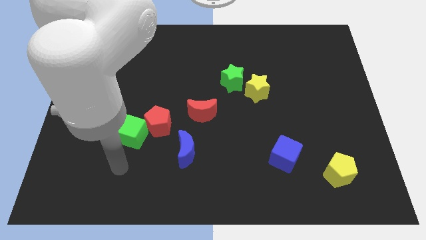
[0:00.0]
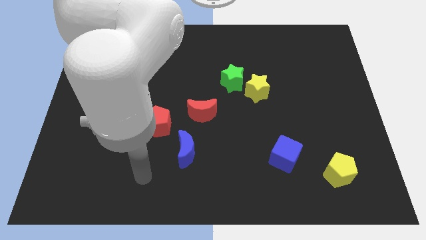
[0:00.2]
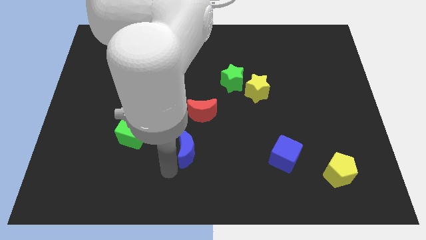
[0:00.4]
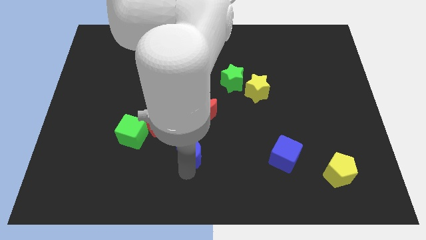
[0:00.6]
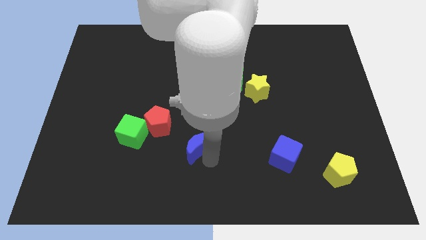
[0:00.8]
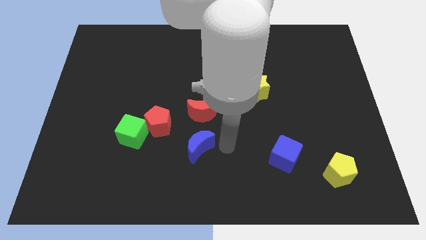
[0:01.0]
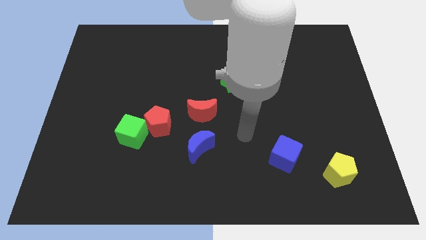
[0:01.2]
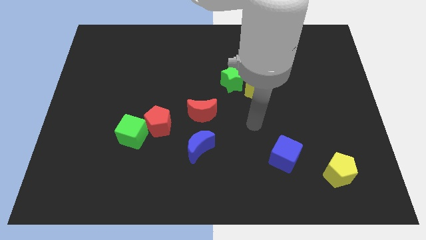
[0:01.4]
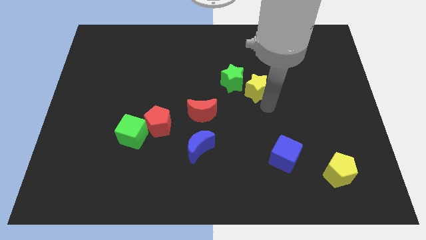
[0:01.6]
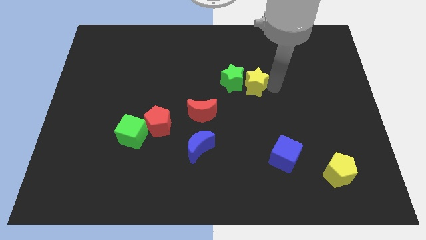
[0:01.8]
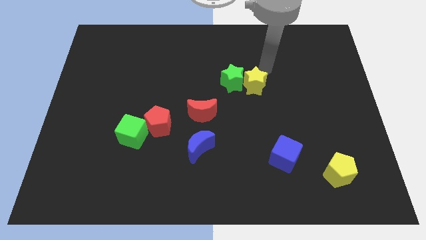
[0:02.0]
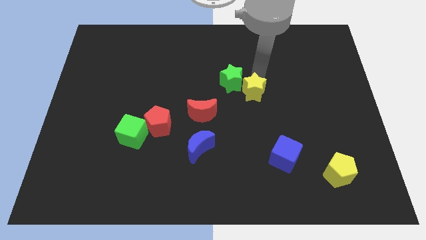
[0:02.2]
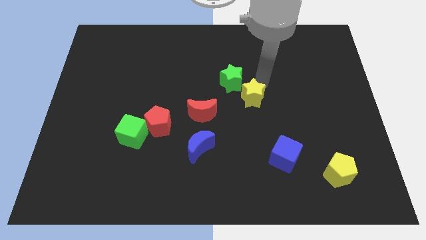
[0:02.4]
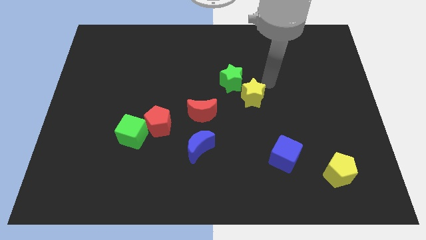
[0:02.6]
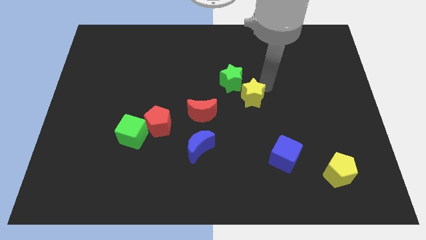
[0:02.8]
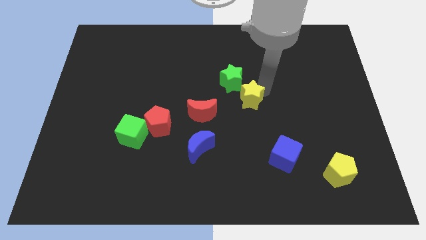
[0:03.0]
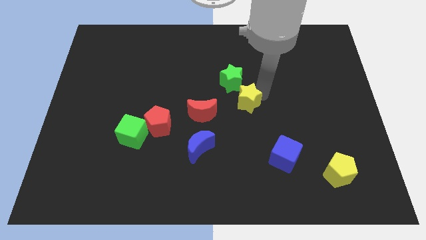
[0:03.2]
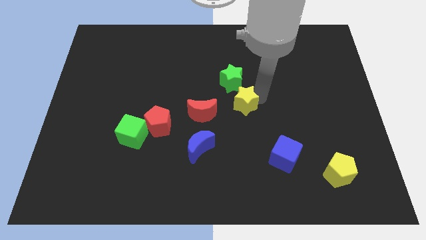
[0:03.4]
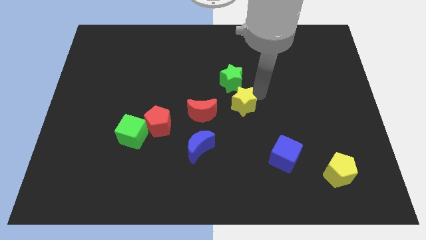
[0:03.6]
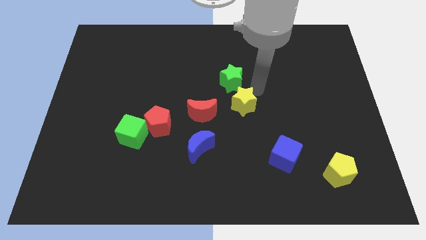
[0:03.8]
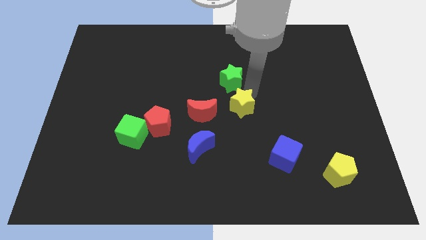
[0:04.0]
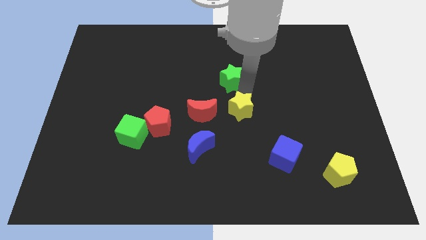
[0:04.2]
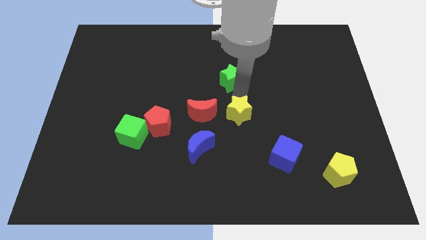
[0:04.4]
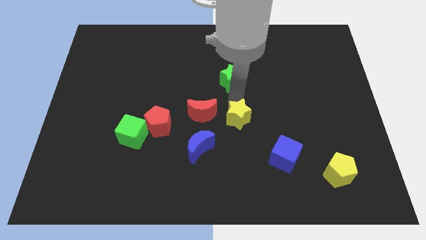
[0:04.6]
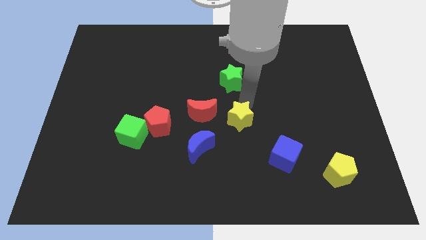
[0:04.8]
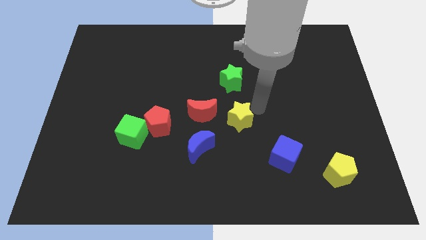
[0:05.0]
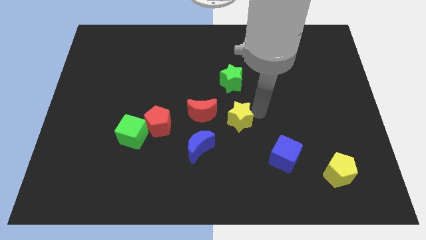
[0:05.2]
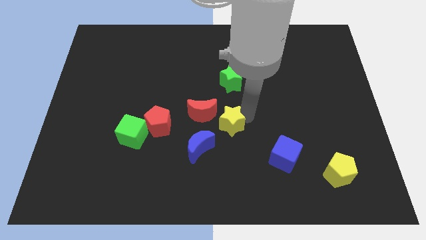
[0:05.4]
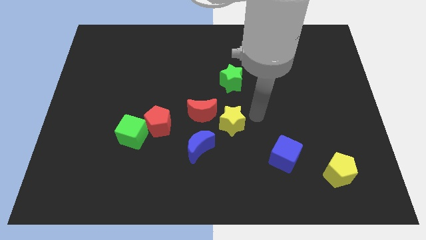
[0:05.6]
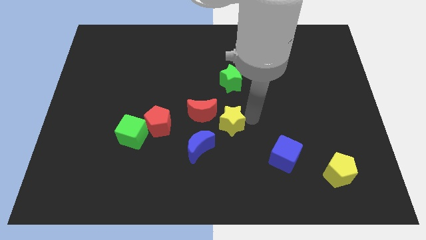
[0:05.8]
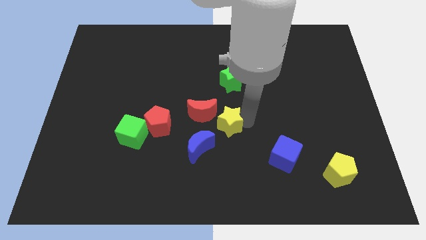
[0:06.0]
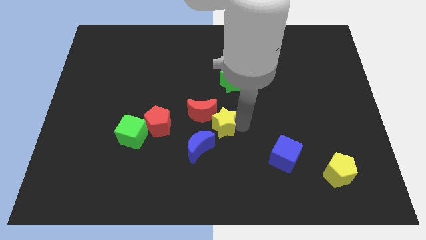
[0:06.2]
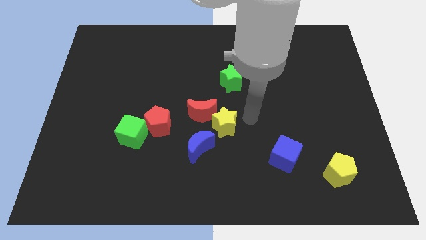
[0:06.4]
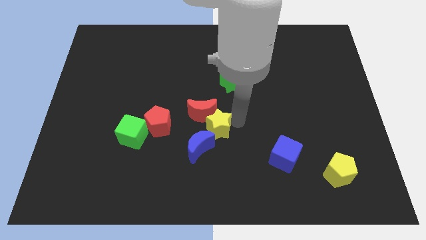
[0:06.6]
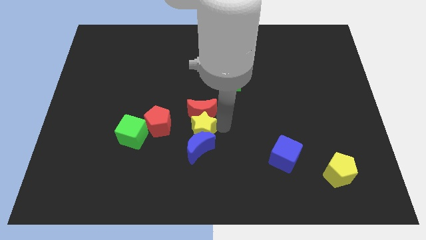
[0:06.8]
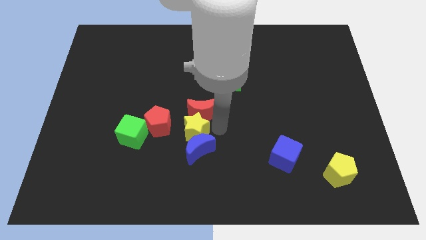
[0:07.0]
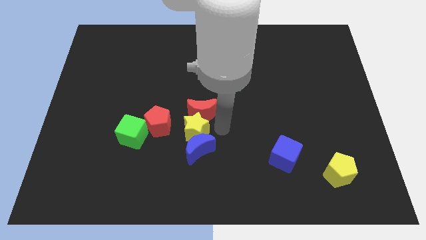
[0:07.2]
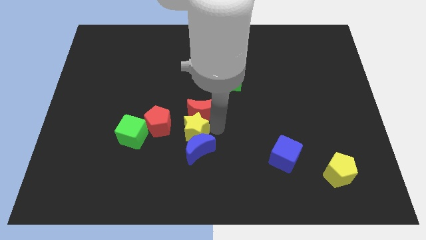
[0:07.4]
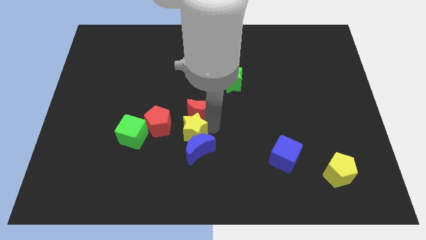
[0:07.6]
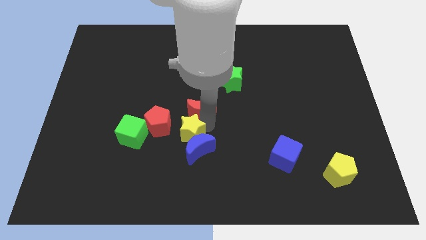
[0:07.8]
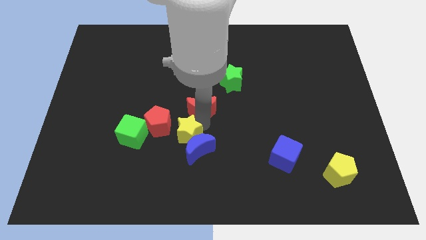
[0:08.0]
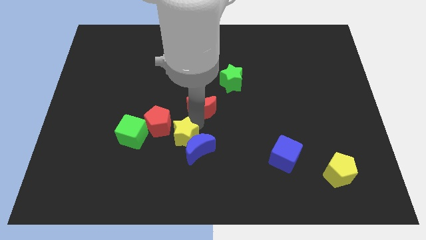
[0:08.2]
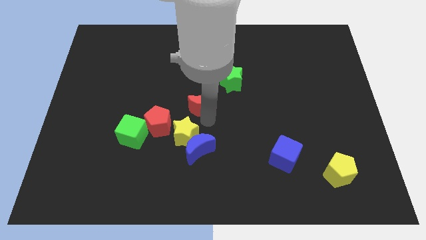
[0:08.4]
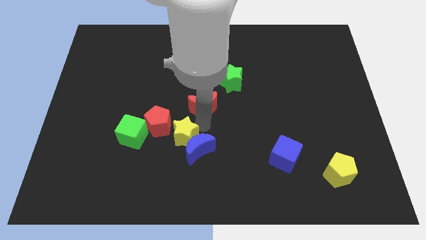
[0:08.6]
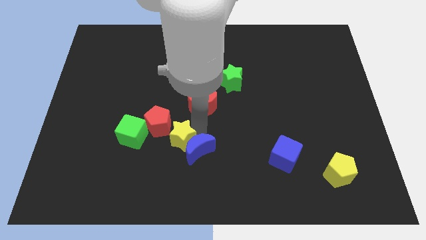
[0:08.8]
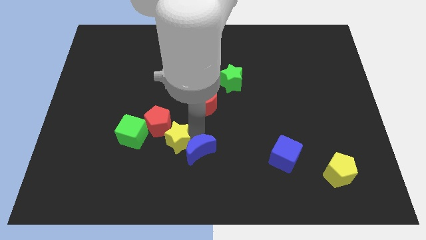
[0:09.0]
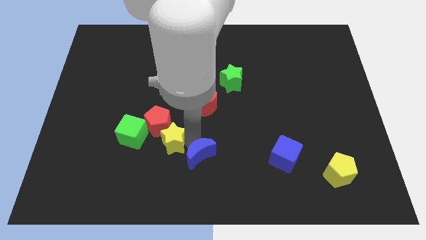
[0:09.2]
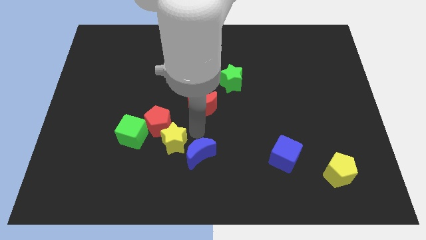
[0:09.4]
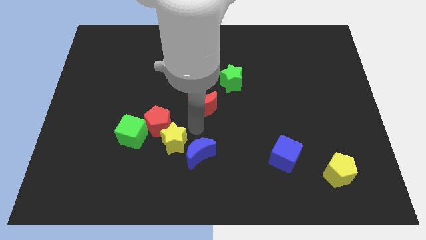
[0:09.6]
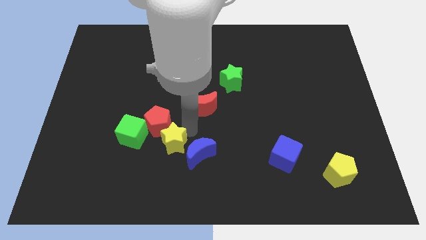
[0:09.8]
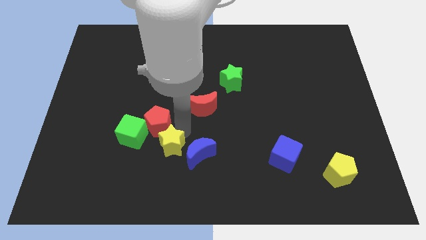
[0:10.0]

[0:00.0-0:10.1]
slide the yellow star diagonally down and to the right of the green cube

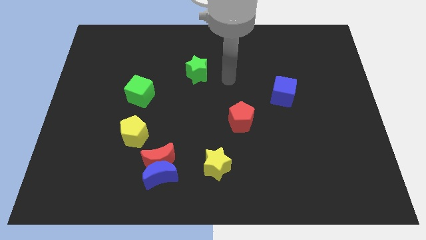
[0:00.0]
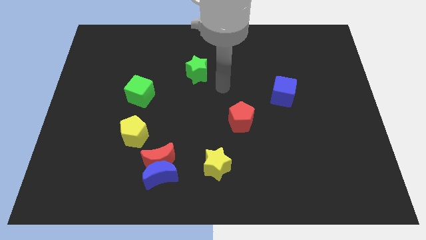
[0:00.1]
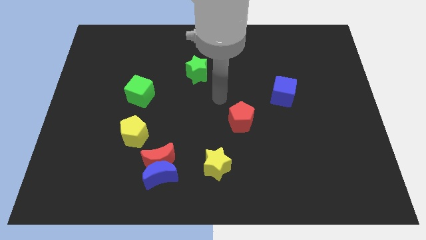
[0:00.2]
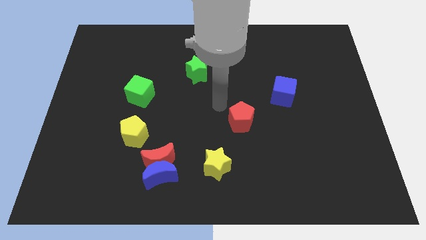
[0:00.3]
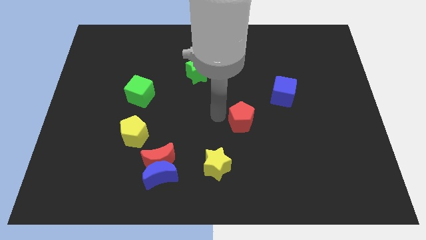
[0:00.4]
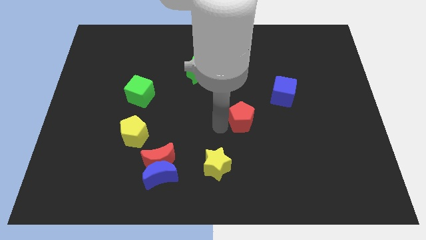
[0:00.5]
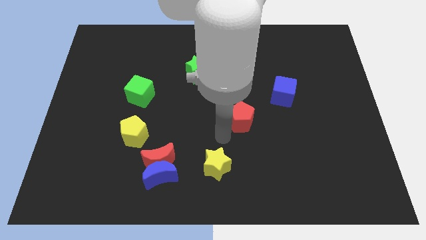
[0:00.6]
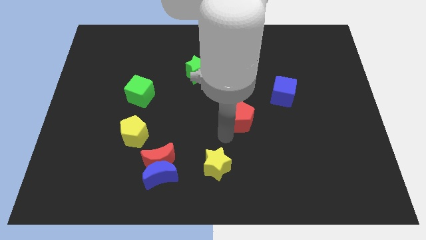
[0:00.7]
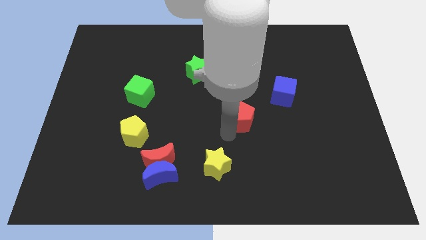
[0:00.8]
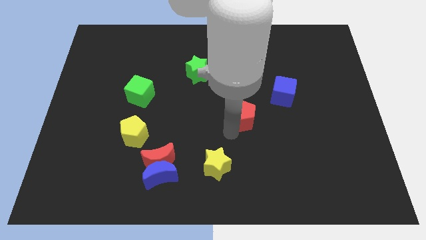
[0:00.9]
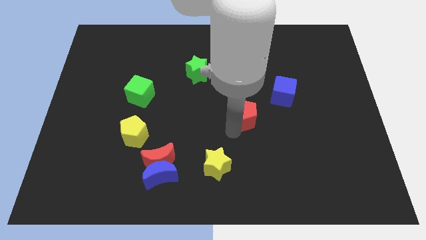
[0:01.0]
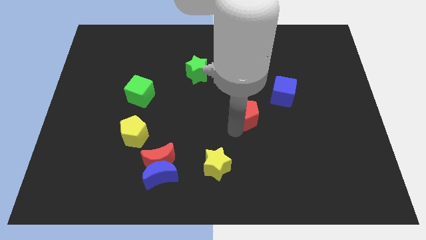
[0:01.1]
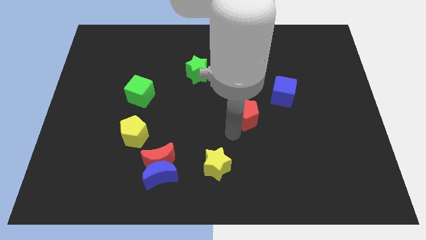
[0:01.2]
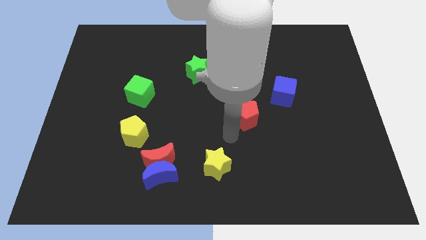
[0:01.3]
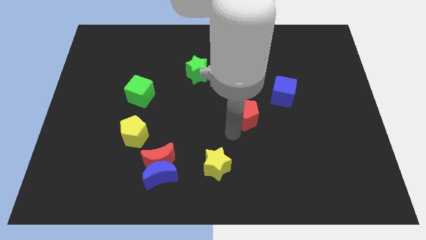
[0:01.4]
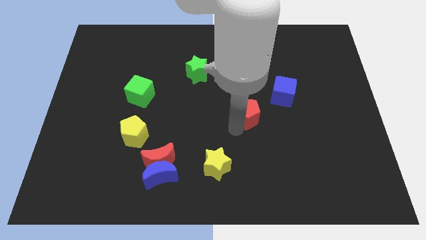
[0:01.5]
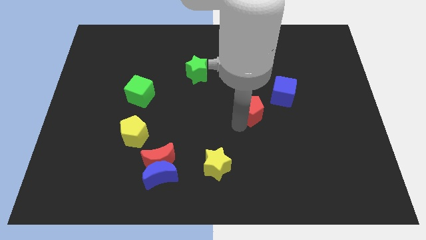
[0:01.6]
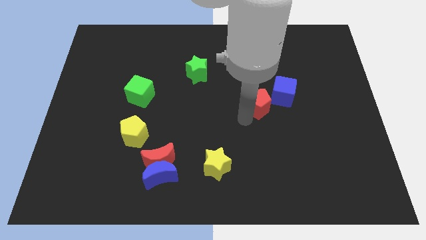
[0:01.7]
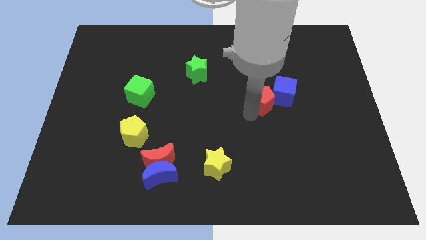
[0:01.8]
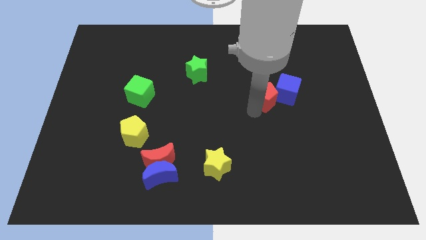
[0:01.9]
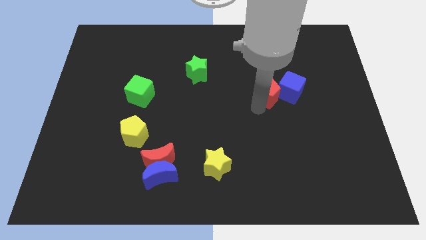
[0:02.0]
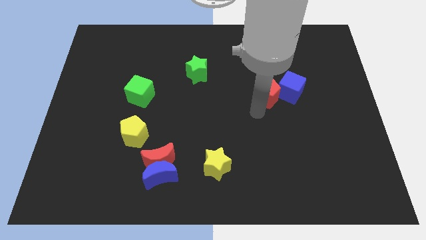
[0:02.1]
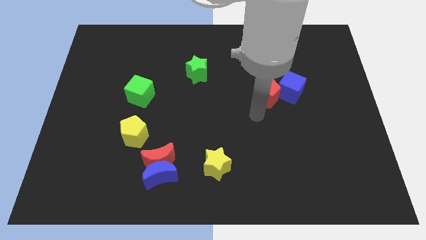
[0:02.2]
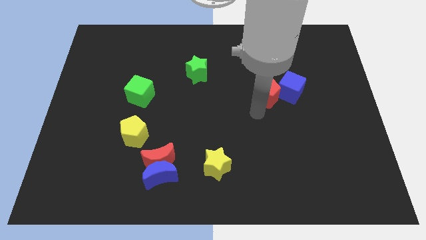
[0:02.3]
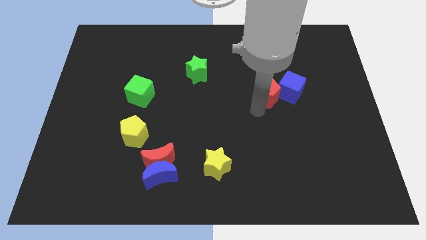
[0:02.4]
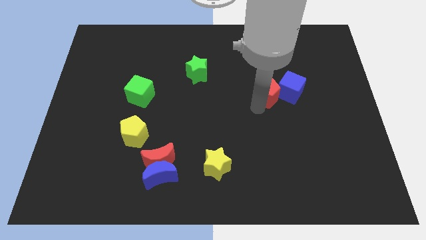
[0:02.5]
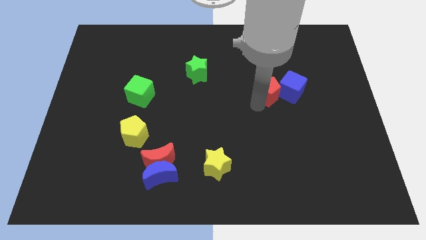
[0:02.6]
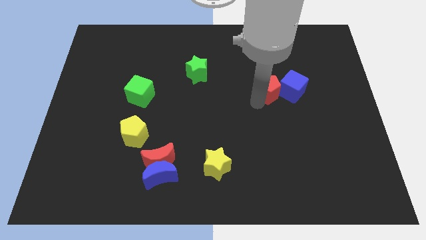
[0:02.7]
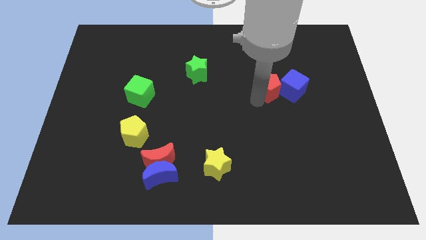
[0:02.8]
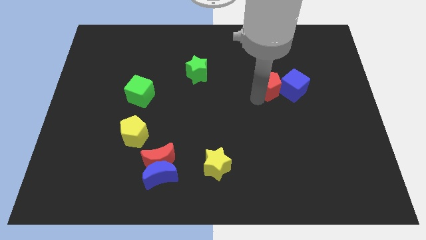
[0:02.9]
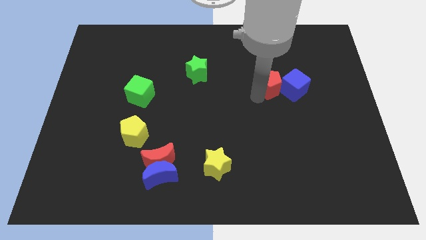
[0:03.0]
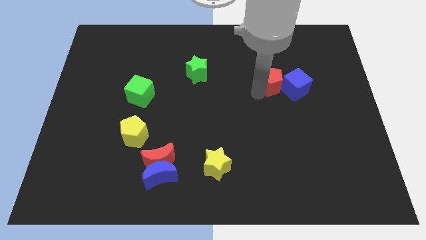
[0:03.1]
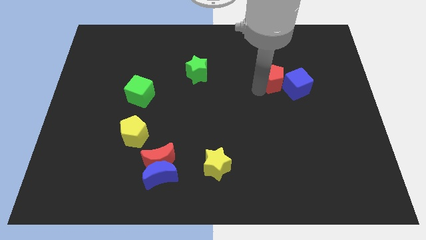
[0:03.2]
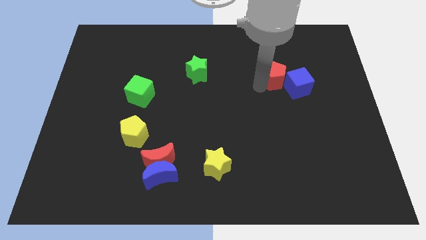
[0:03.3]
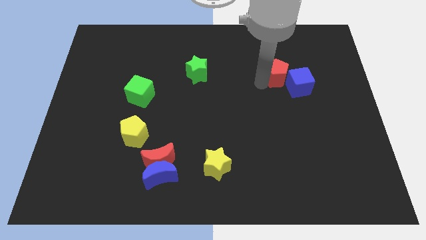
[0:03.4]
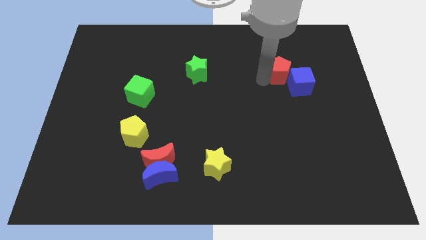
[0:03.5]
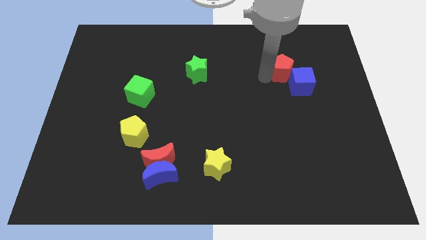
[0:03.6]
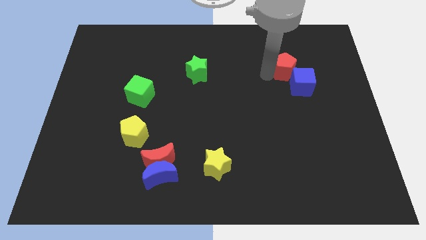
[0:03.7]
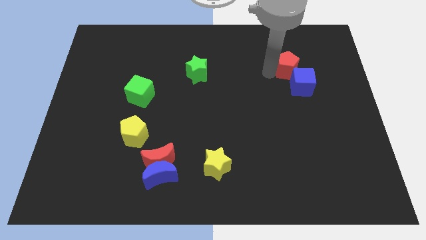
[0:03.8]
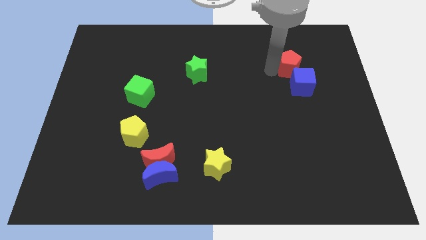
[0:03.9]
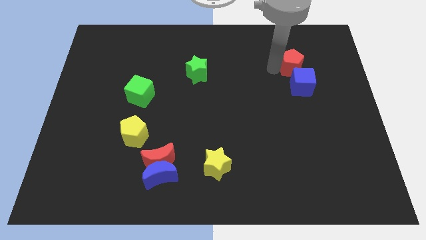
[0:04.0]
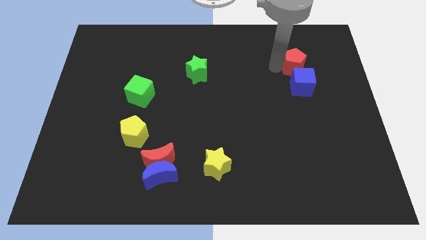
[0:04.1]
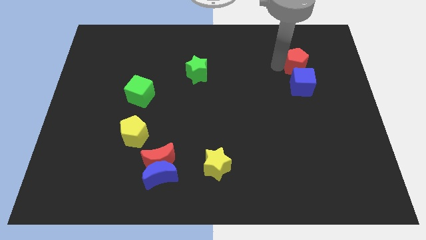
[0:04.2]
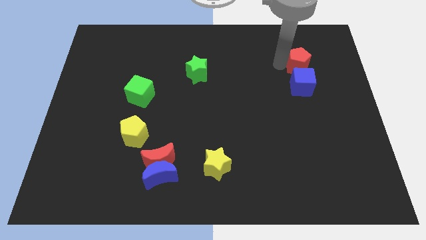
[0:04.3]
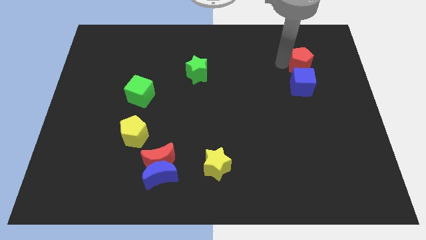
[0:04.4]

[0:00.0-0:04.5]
move the red pentagon diagonally up and to the right of the blue cube
